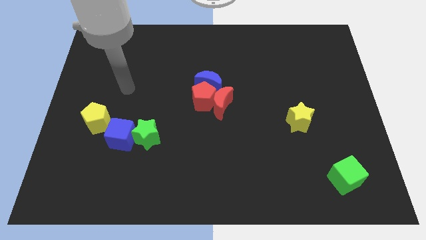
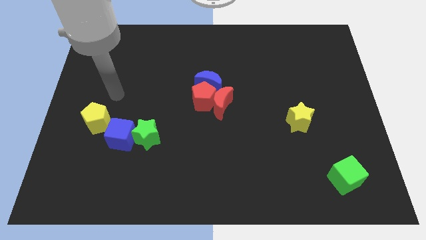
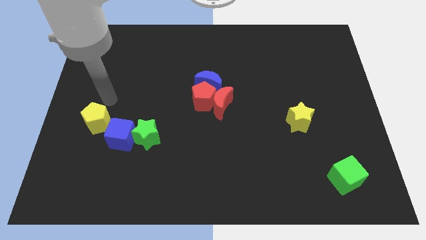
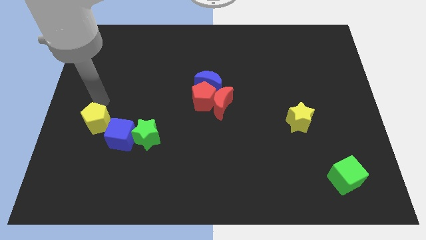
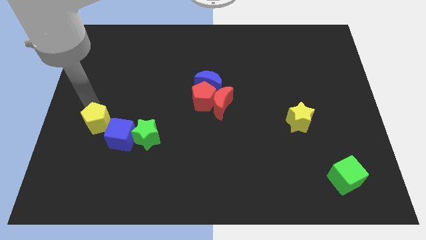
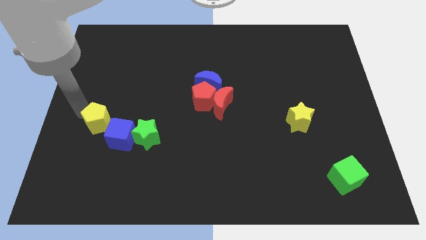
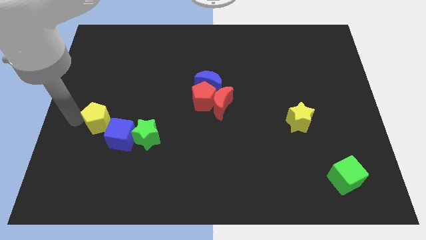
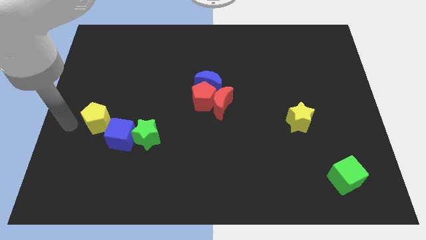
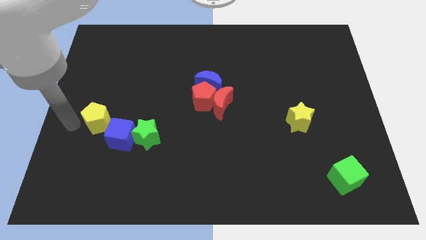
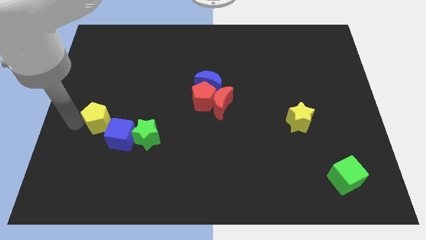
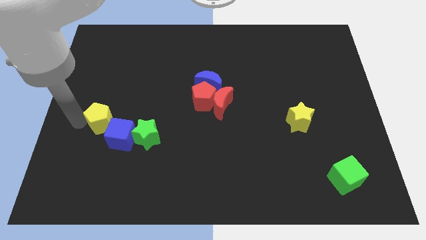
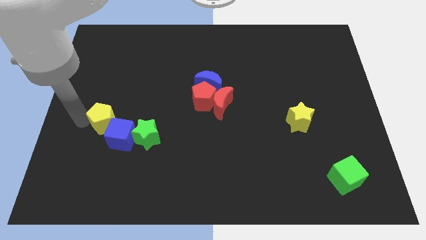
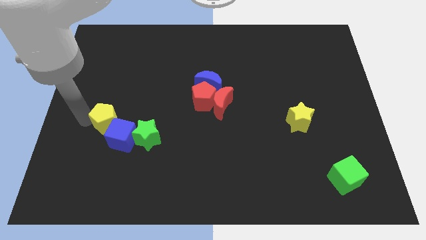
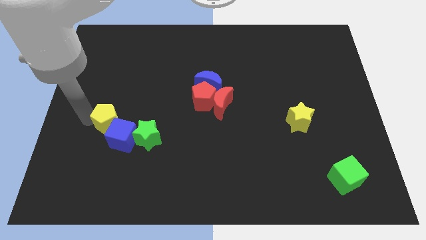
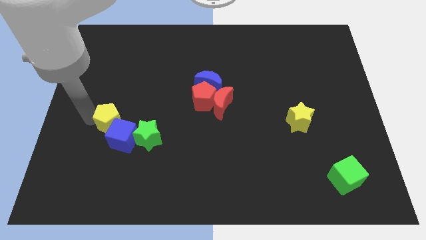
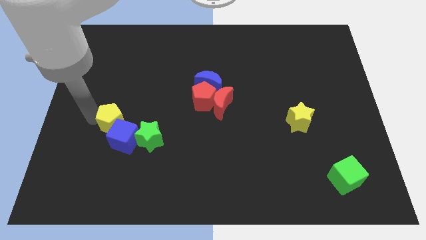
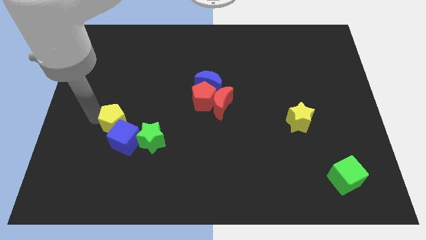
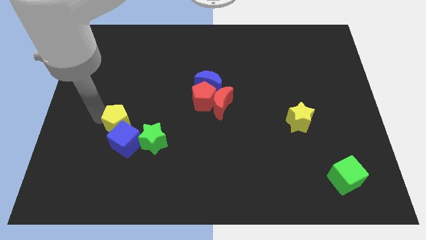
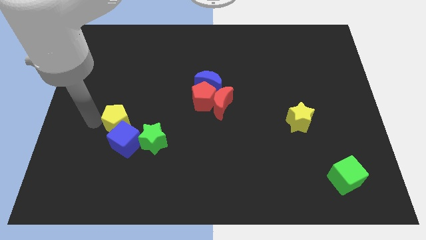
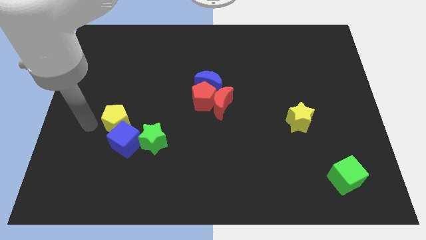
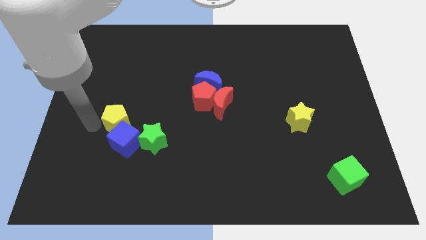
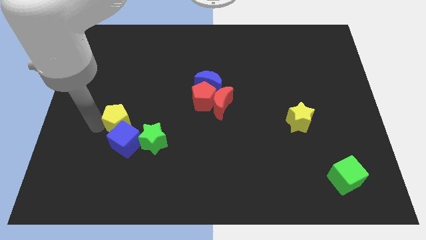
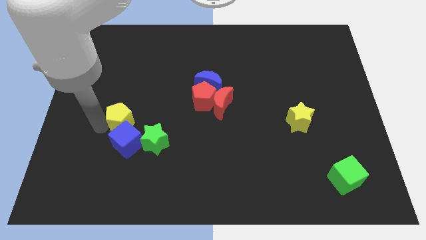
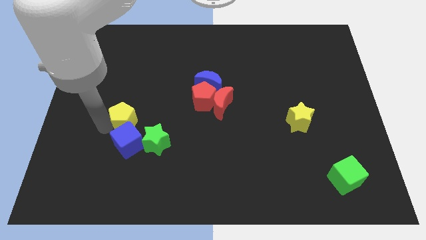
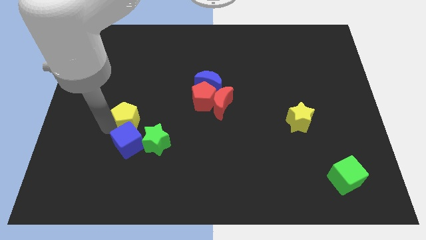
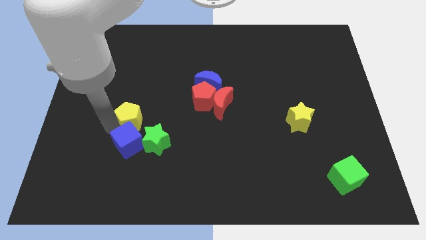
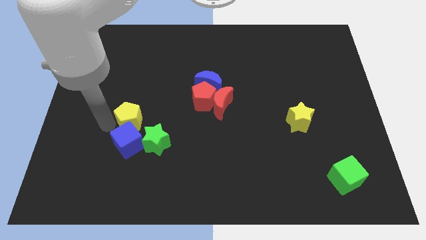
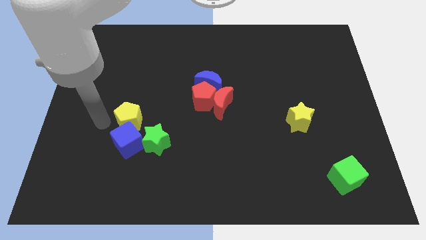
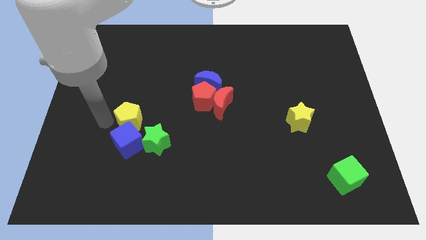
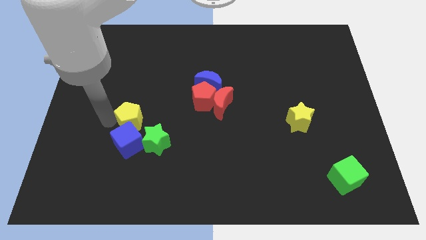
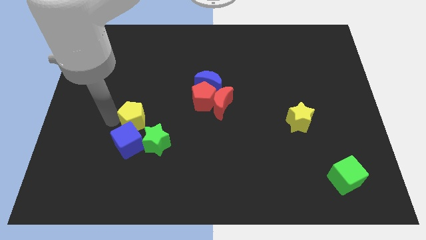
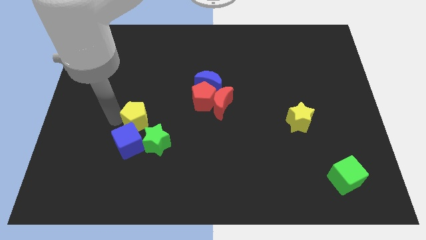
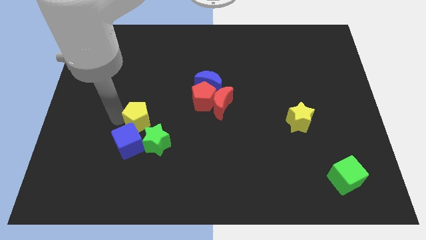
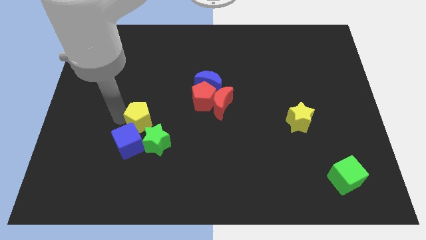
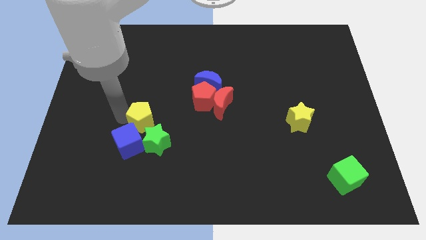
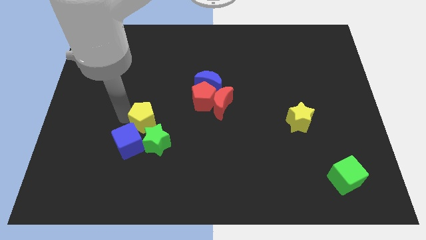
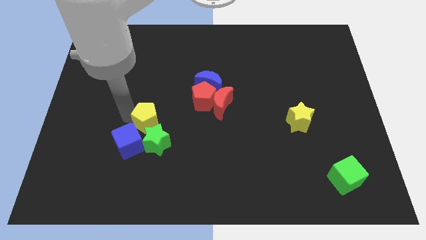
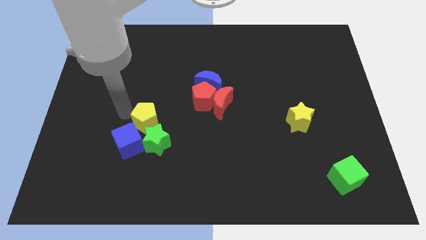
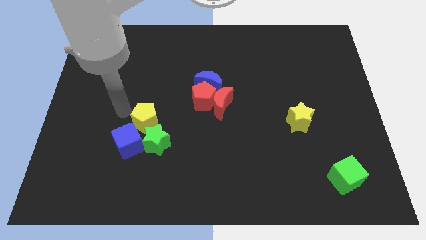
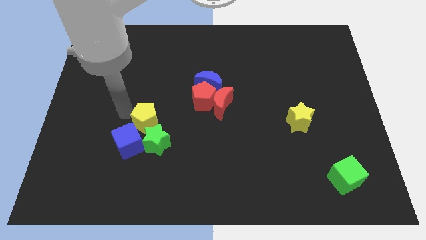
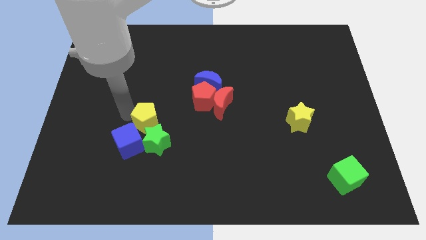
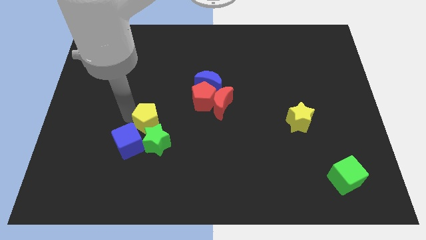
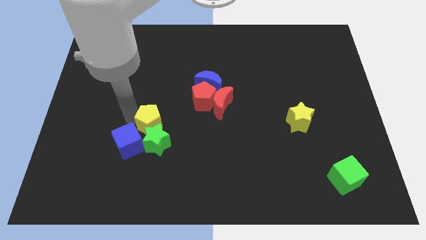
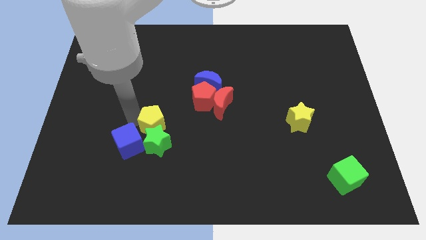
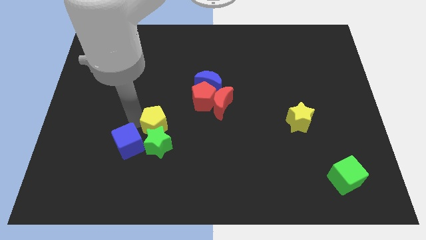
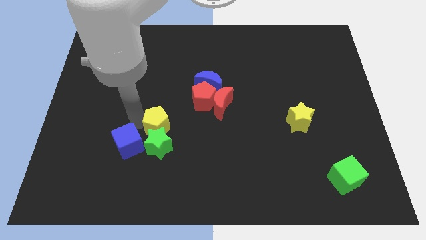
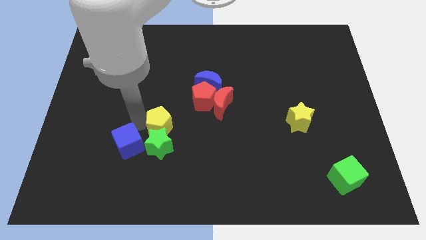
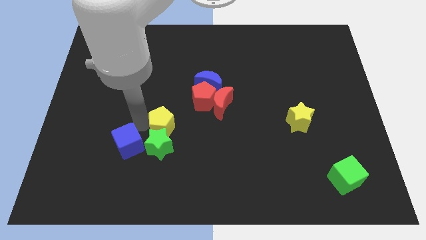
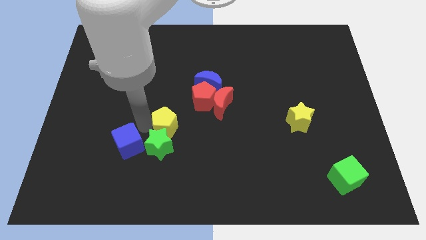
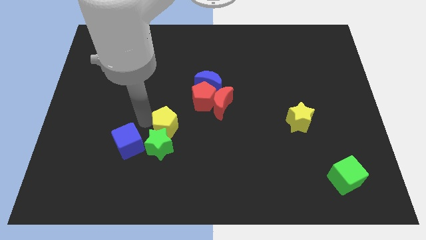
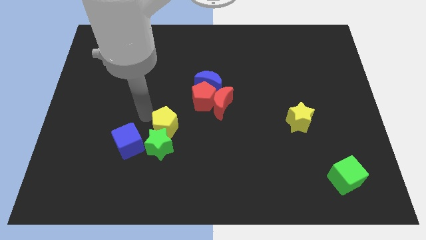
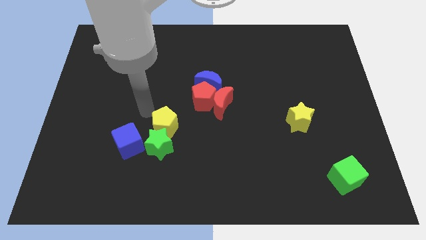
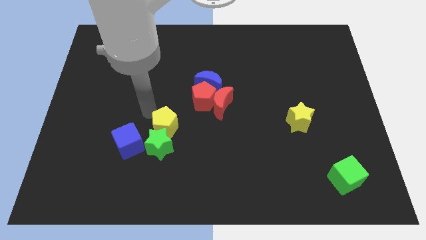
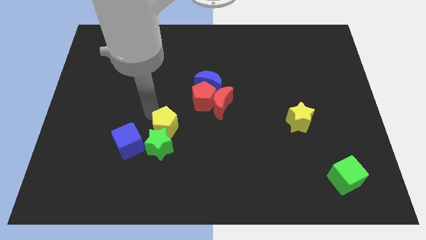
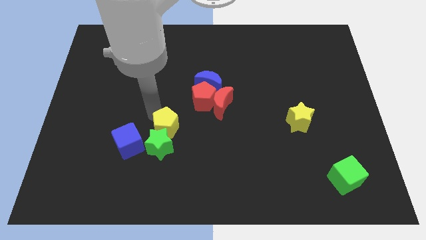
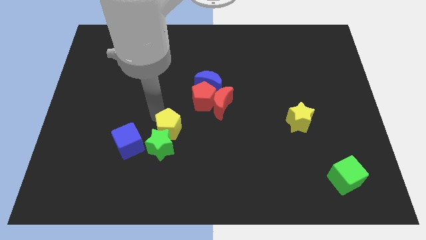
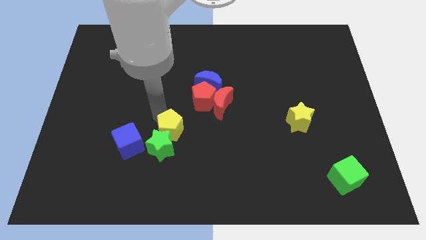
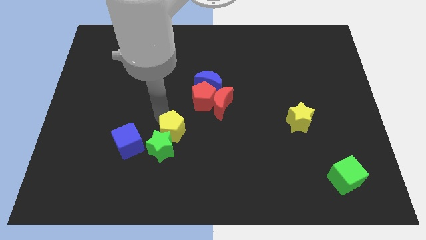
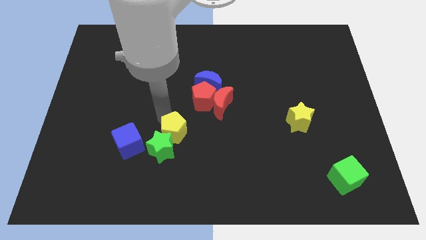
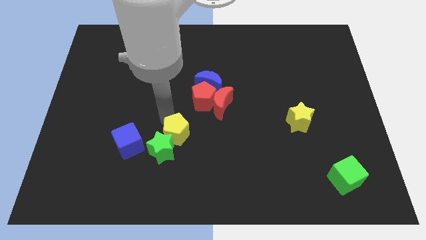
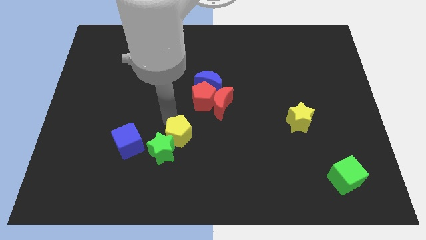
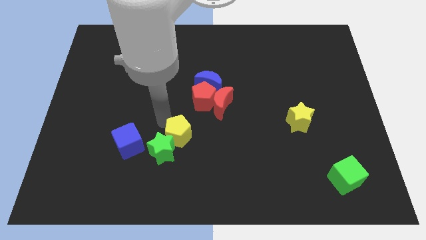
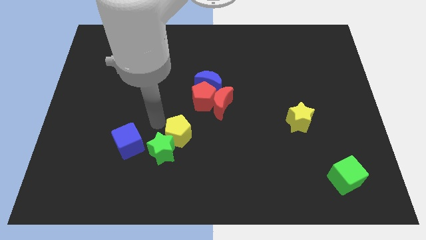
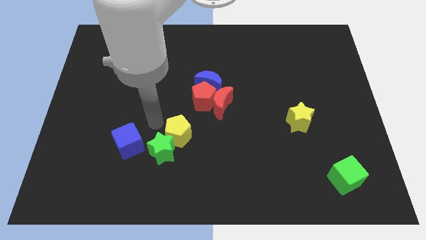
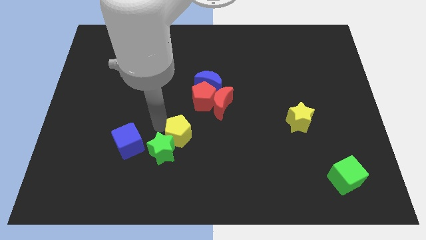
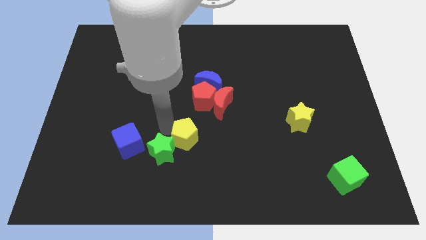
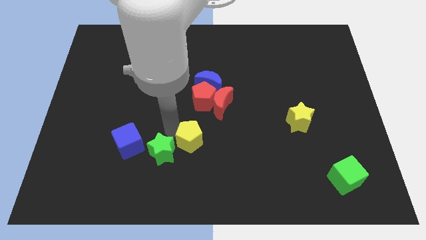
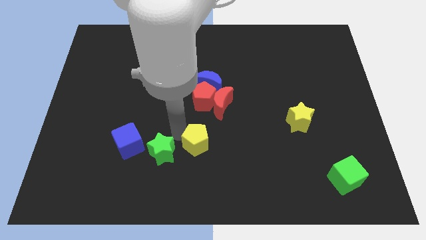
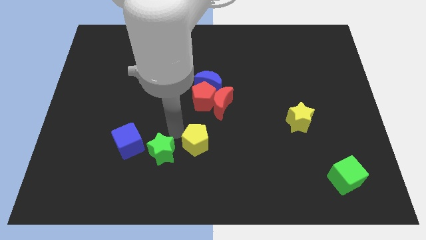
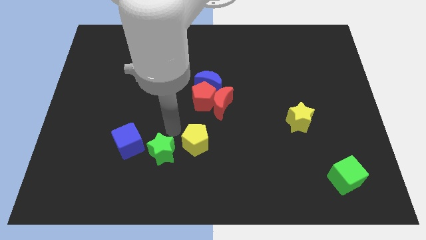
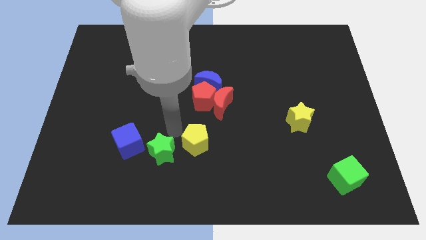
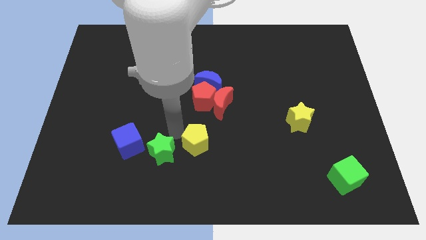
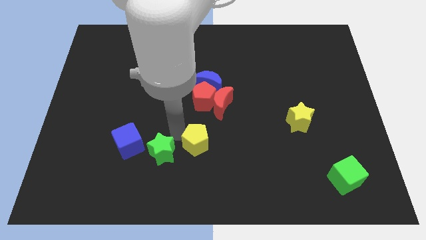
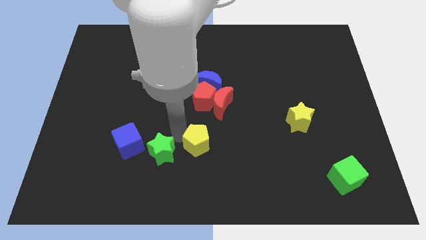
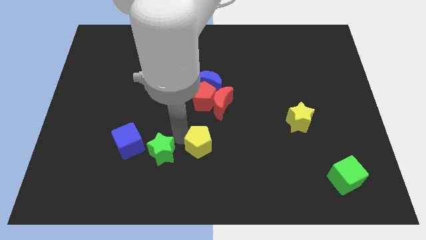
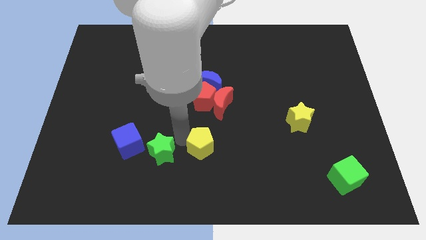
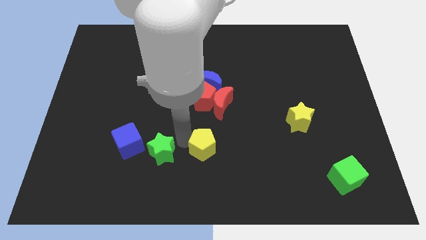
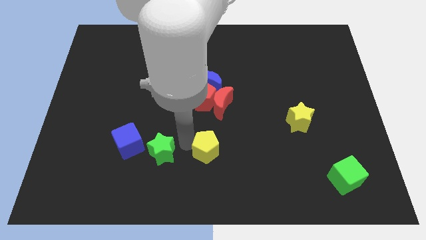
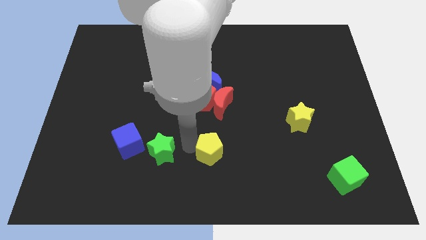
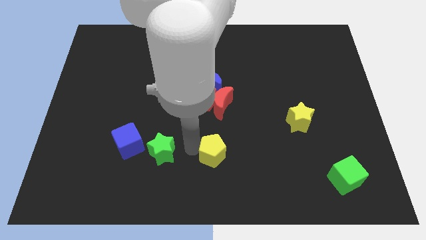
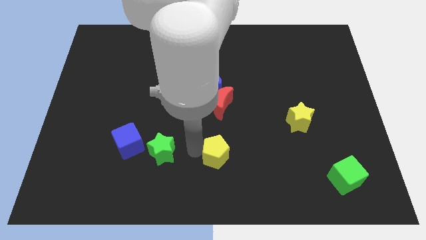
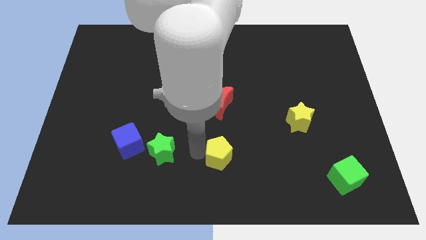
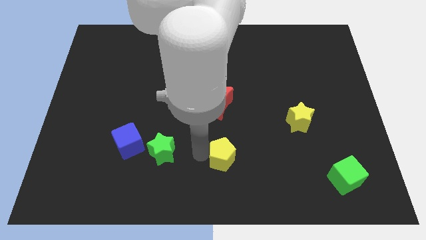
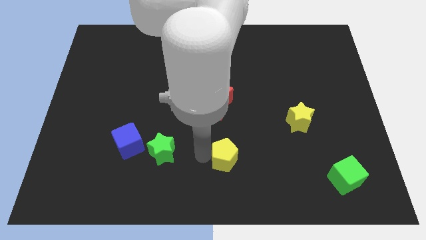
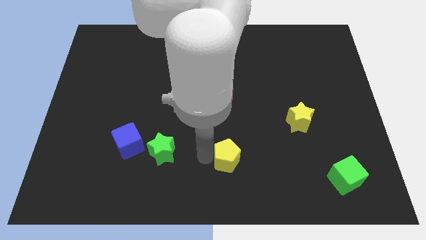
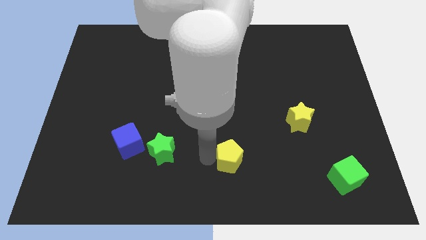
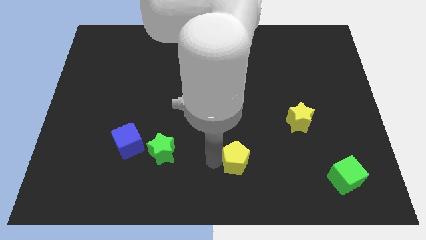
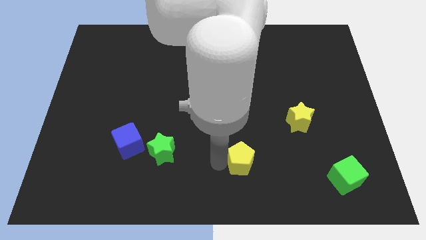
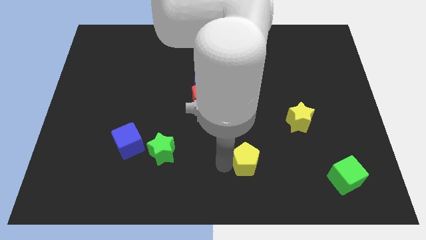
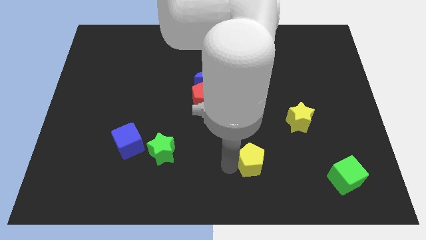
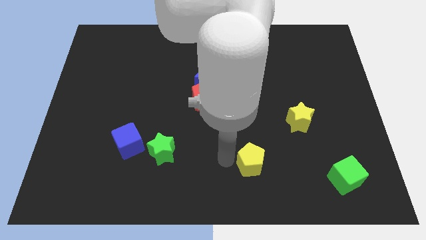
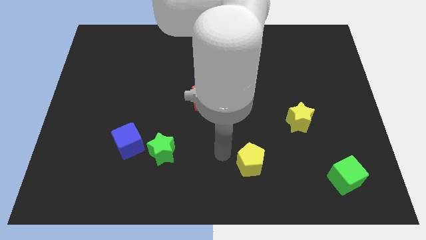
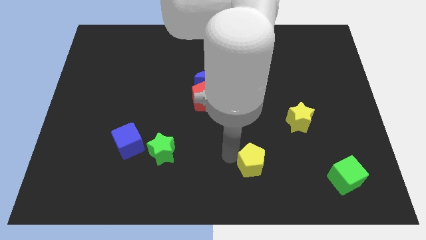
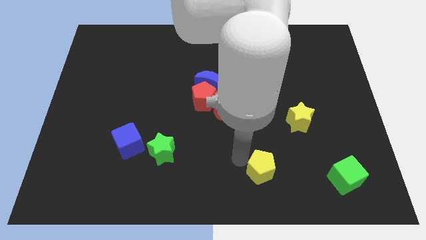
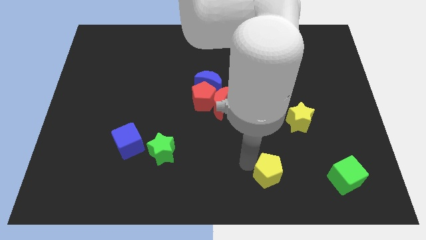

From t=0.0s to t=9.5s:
put the yellow pentagon left of the green cube
